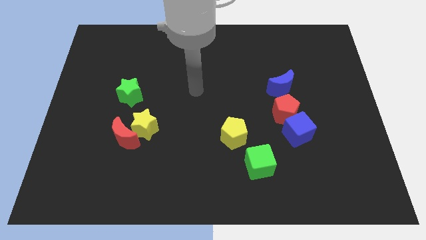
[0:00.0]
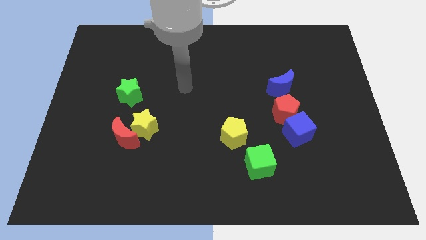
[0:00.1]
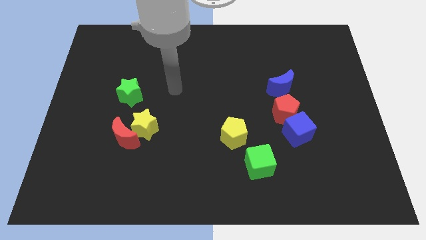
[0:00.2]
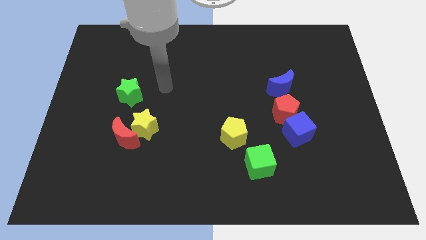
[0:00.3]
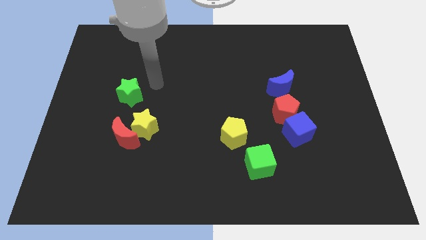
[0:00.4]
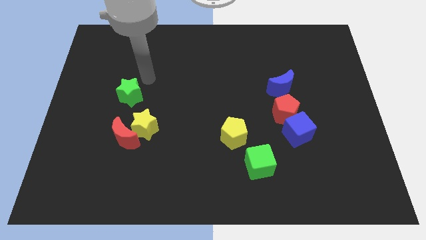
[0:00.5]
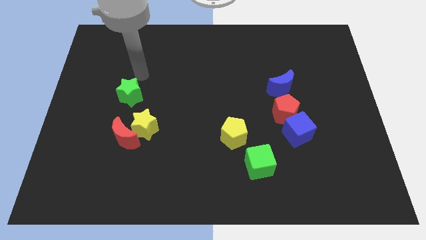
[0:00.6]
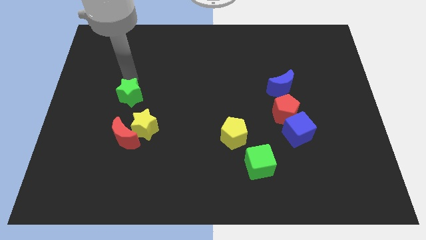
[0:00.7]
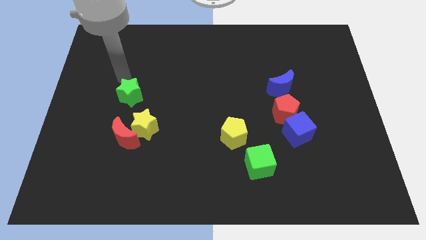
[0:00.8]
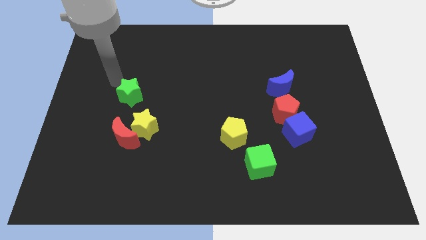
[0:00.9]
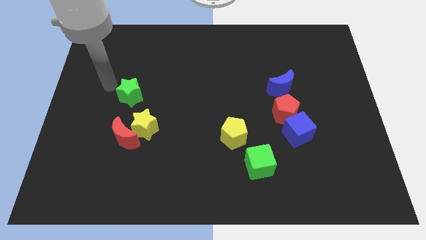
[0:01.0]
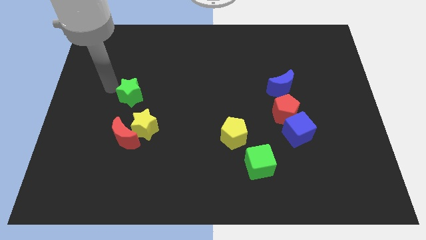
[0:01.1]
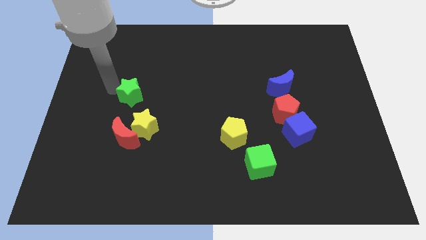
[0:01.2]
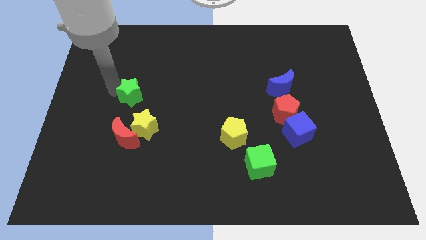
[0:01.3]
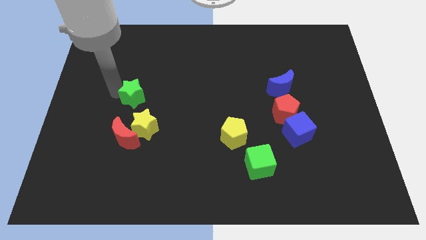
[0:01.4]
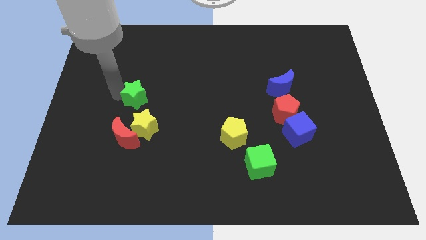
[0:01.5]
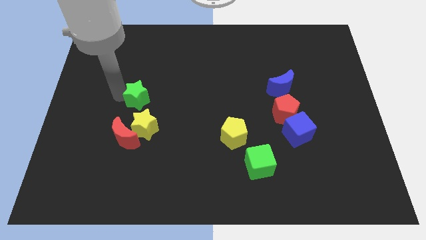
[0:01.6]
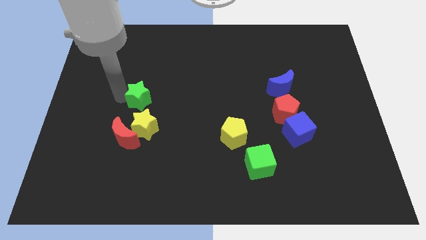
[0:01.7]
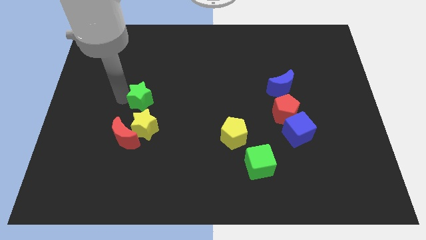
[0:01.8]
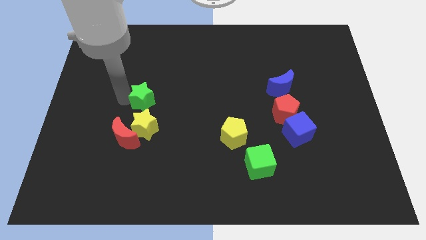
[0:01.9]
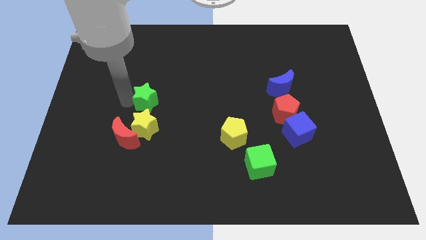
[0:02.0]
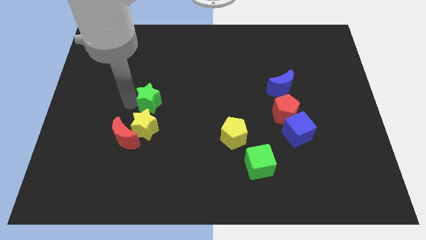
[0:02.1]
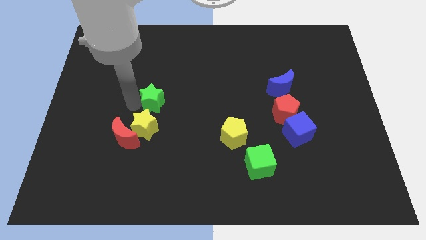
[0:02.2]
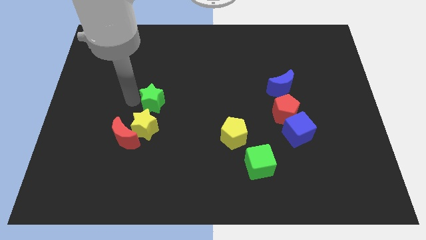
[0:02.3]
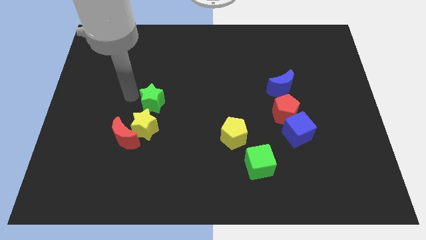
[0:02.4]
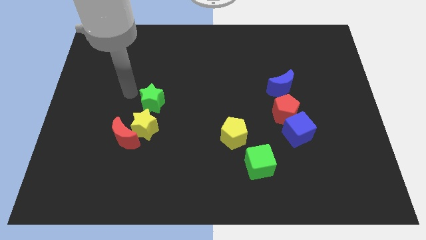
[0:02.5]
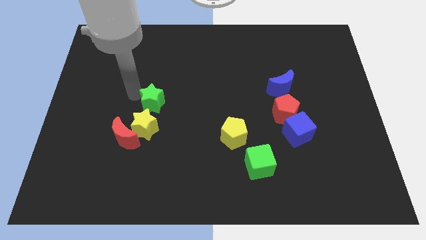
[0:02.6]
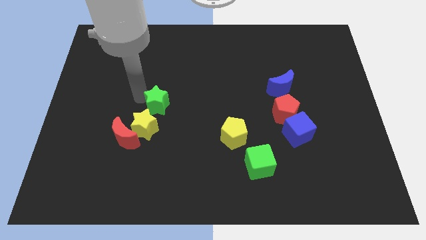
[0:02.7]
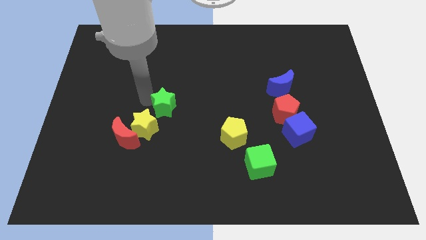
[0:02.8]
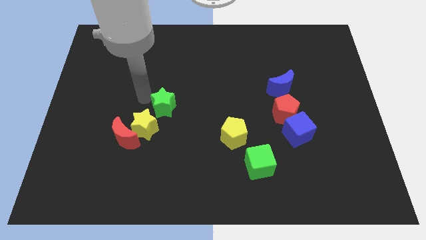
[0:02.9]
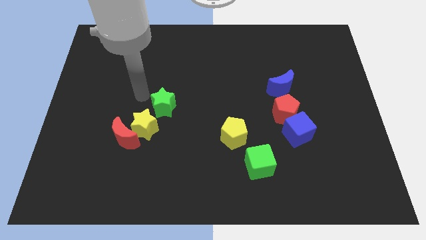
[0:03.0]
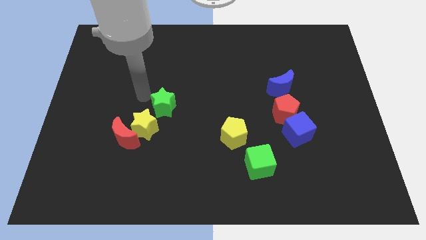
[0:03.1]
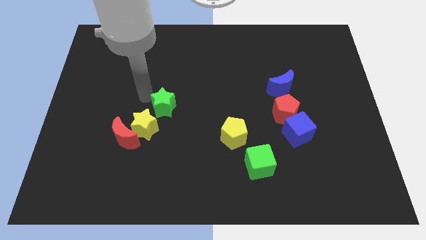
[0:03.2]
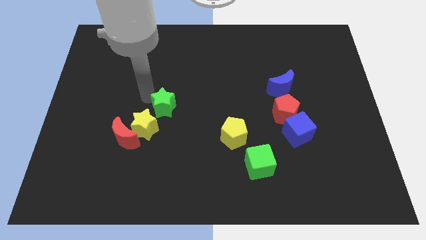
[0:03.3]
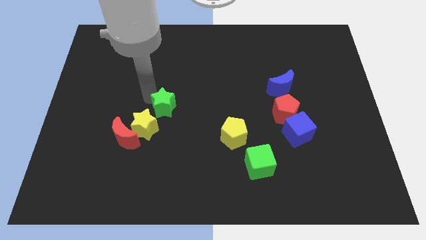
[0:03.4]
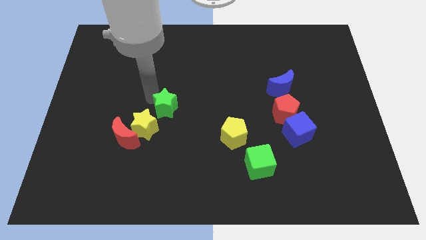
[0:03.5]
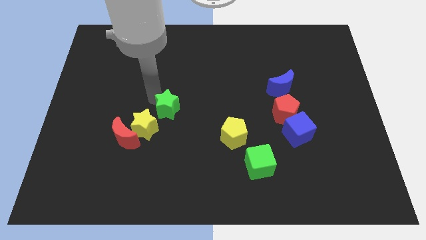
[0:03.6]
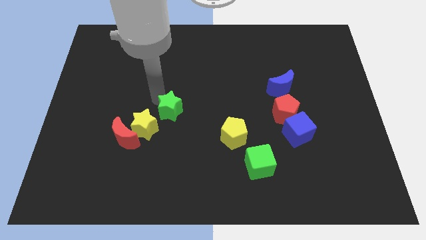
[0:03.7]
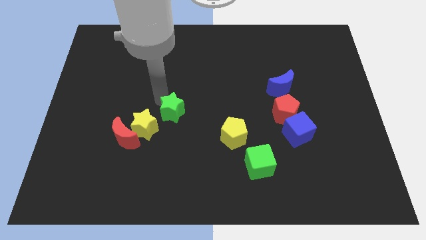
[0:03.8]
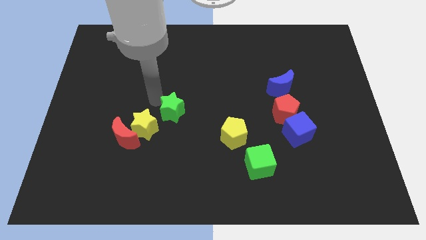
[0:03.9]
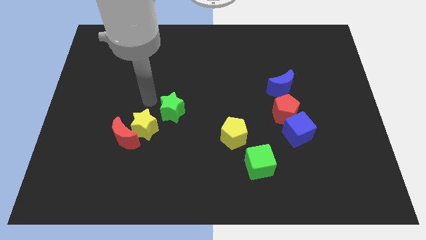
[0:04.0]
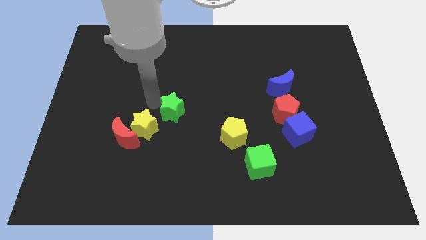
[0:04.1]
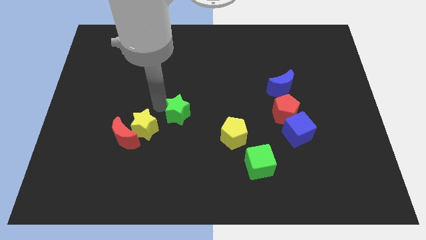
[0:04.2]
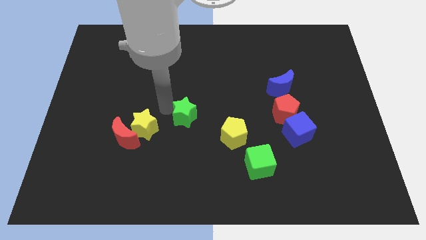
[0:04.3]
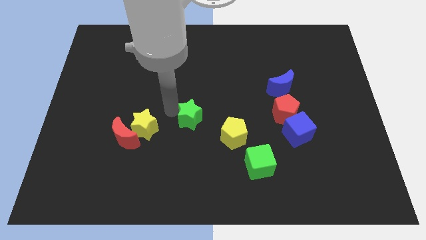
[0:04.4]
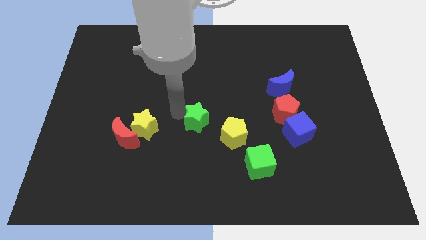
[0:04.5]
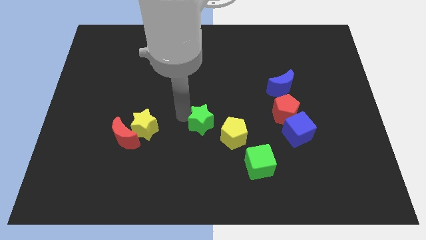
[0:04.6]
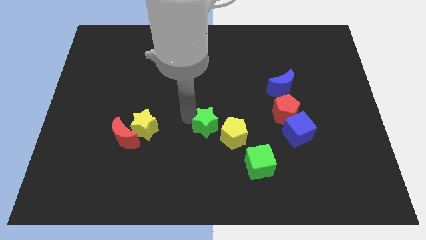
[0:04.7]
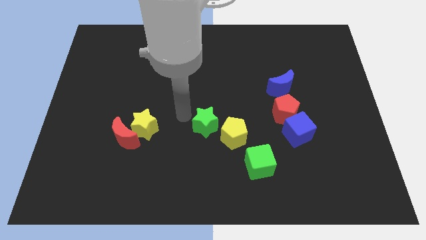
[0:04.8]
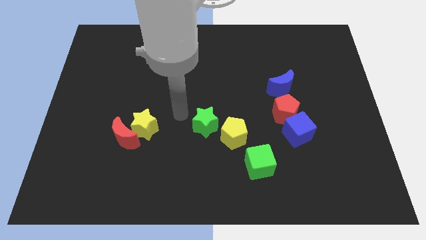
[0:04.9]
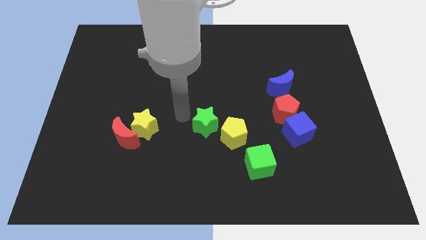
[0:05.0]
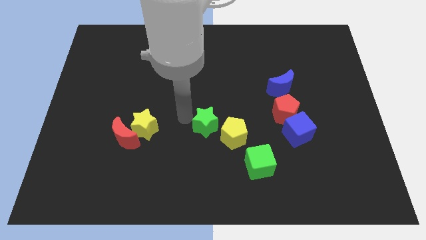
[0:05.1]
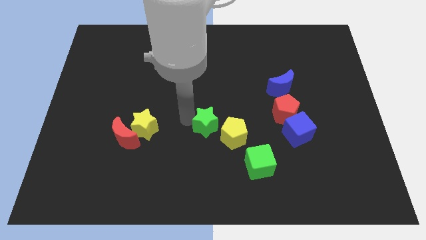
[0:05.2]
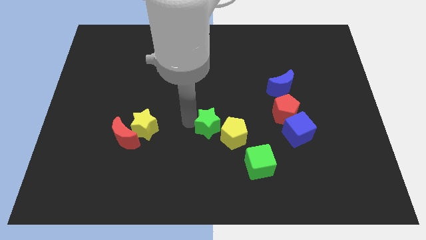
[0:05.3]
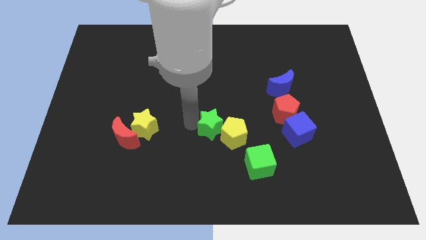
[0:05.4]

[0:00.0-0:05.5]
put the green star towards the yellow pentagon

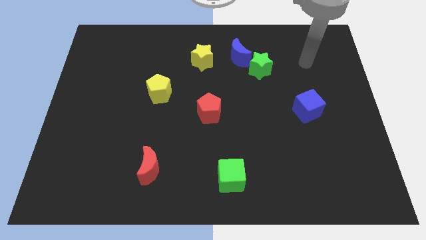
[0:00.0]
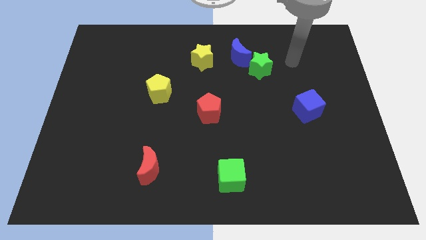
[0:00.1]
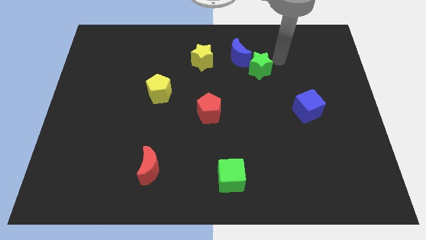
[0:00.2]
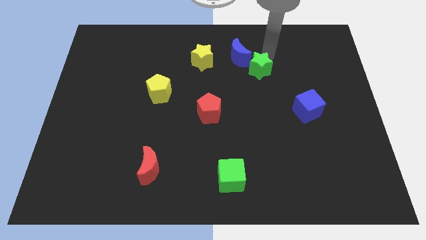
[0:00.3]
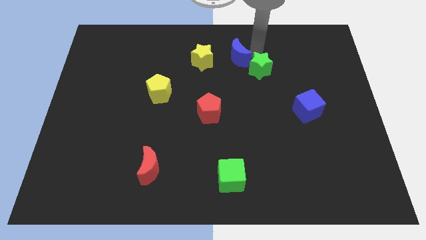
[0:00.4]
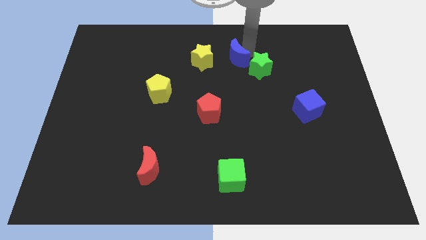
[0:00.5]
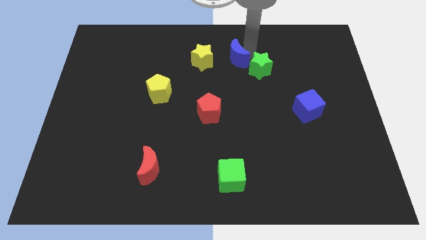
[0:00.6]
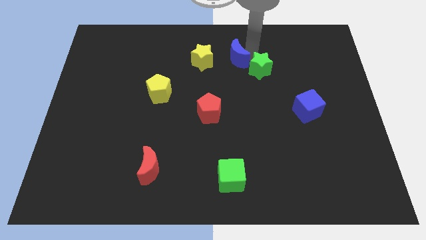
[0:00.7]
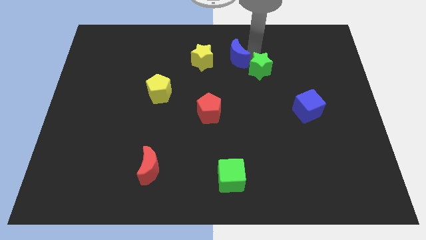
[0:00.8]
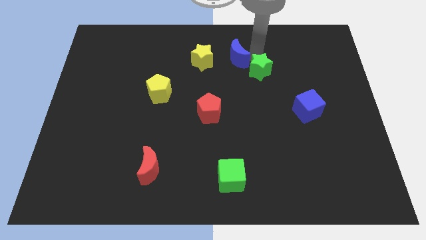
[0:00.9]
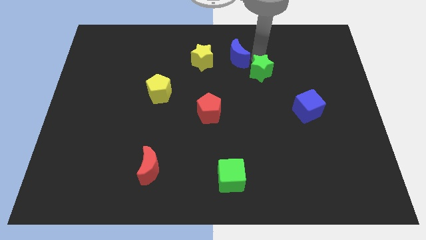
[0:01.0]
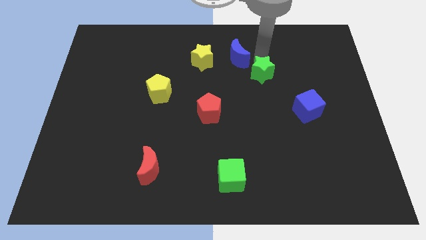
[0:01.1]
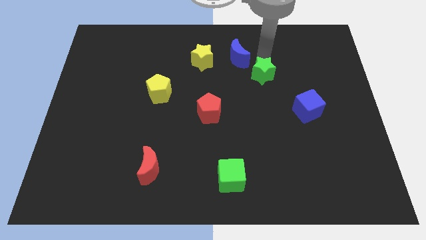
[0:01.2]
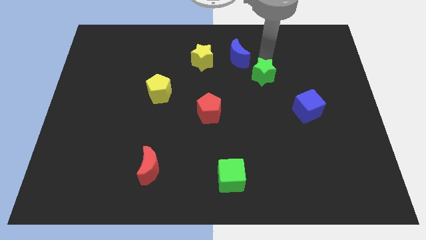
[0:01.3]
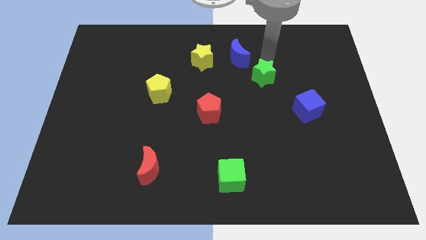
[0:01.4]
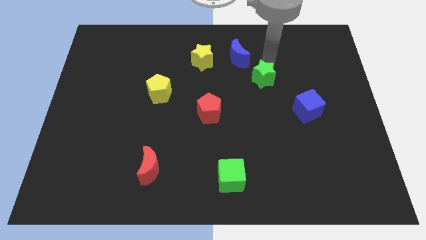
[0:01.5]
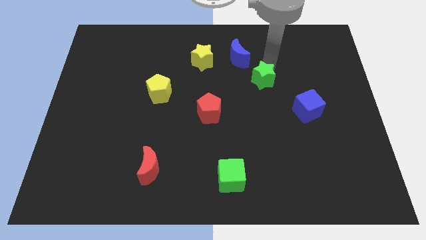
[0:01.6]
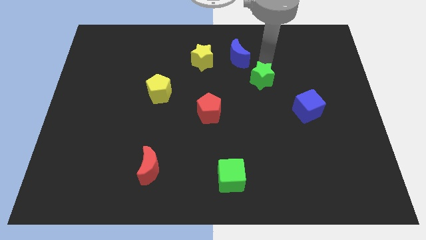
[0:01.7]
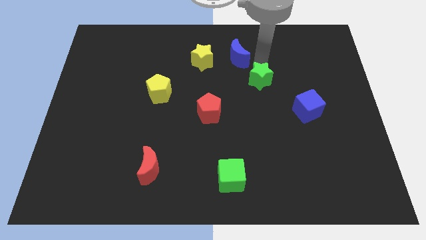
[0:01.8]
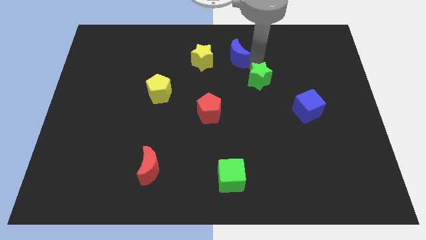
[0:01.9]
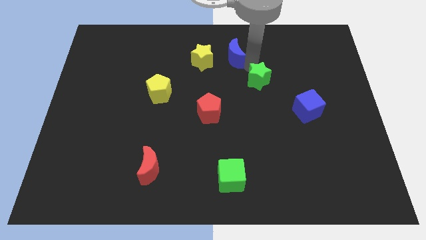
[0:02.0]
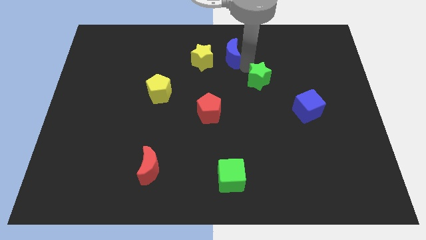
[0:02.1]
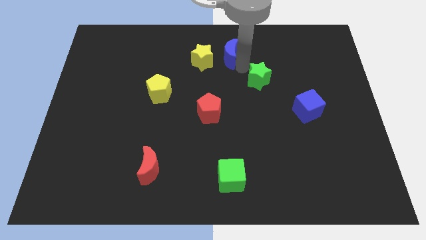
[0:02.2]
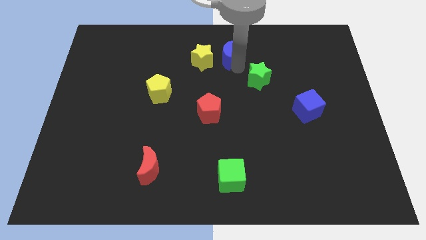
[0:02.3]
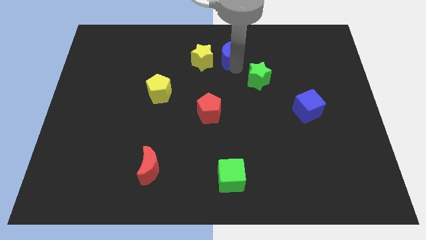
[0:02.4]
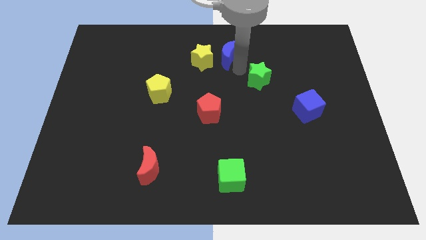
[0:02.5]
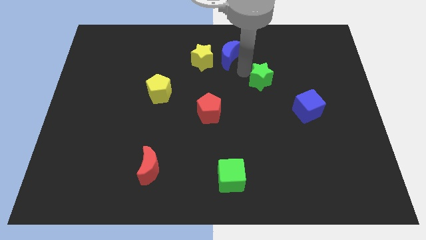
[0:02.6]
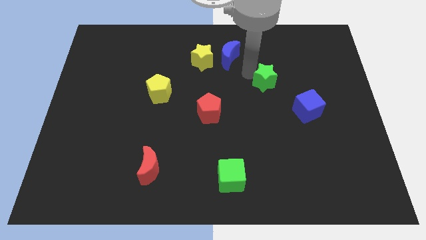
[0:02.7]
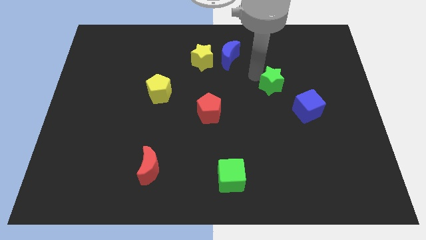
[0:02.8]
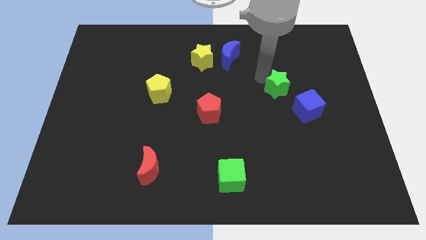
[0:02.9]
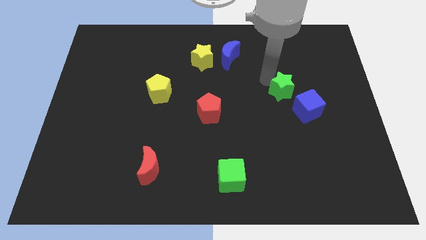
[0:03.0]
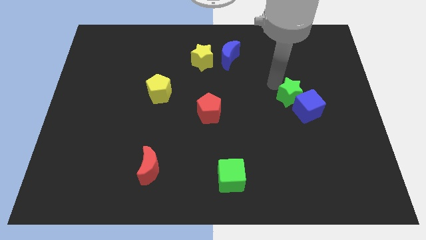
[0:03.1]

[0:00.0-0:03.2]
move the green star to the blue cube
